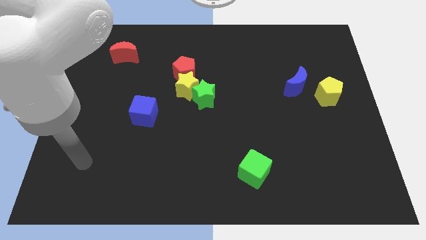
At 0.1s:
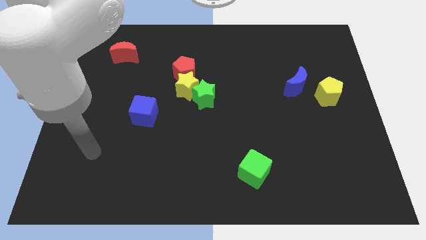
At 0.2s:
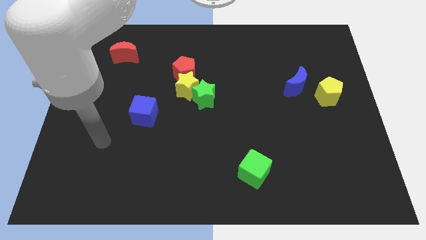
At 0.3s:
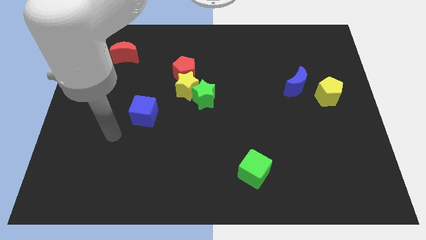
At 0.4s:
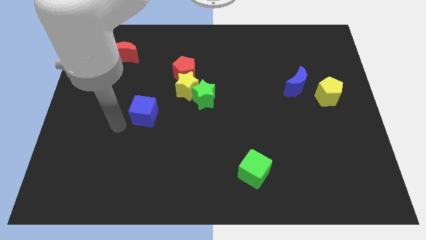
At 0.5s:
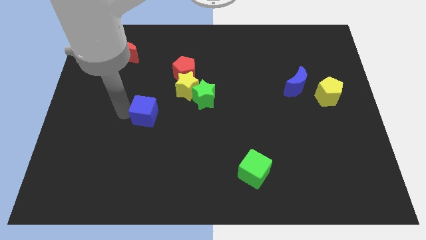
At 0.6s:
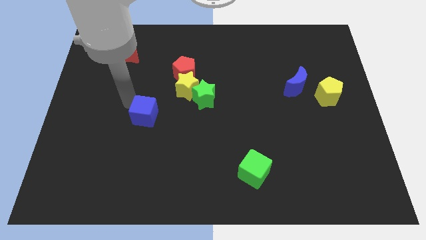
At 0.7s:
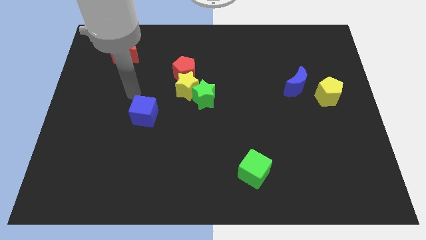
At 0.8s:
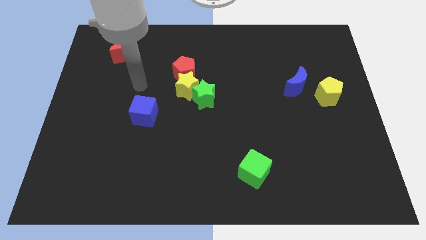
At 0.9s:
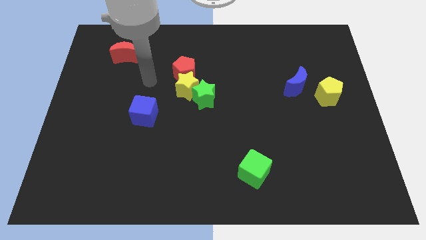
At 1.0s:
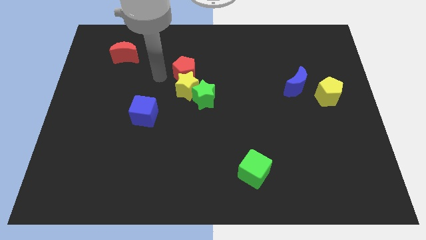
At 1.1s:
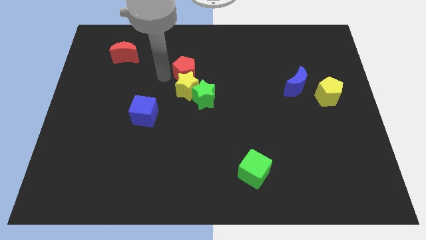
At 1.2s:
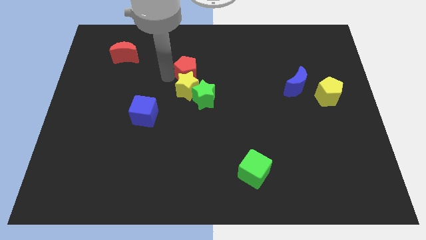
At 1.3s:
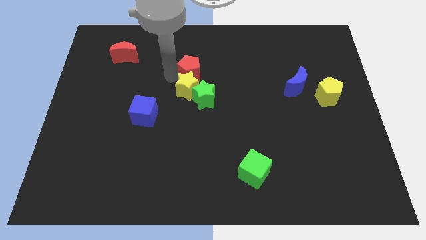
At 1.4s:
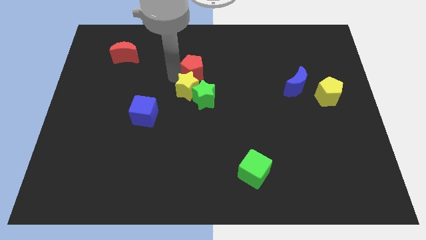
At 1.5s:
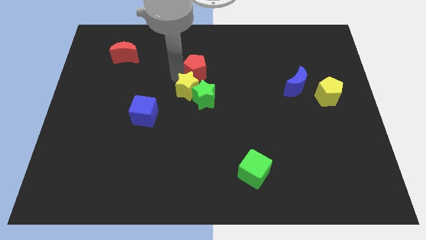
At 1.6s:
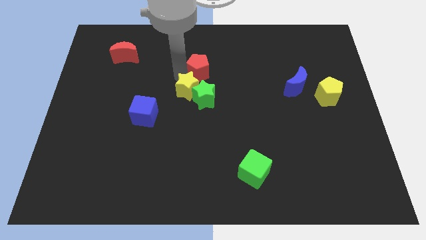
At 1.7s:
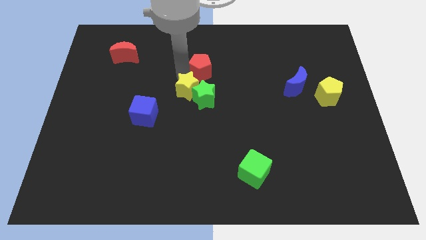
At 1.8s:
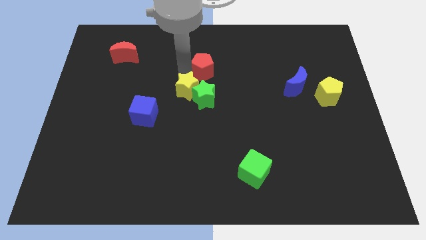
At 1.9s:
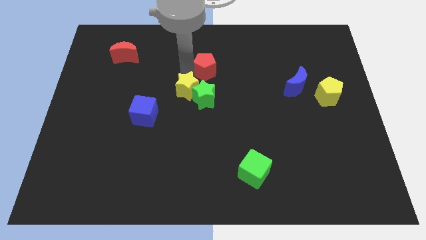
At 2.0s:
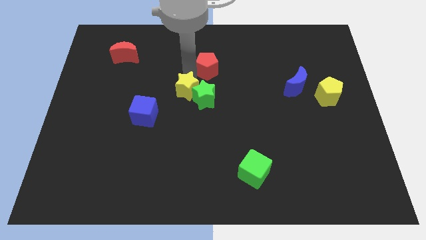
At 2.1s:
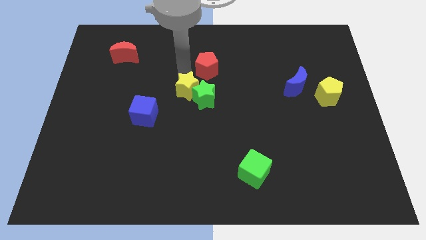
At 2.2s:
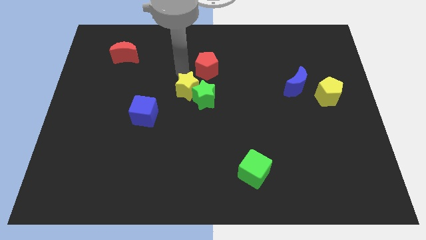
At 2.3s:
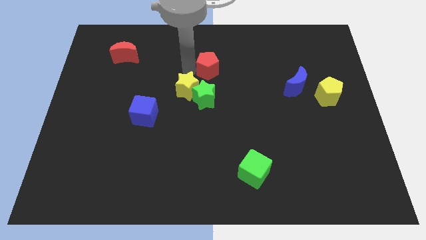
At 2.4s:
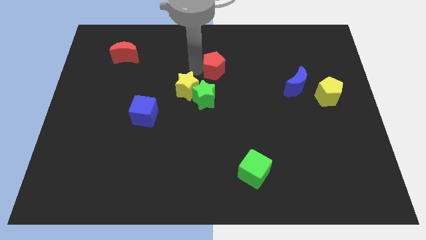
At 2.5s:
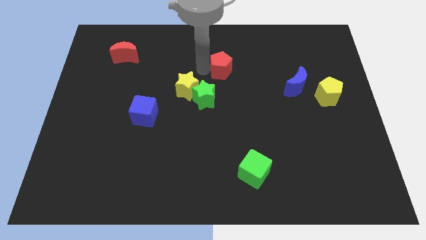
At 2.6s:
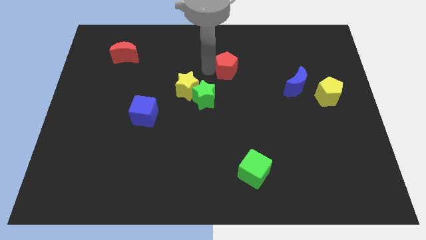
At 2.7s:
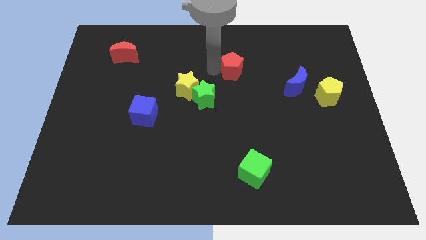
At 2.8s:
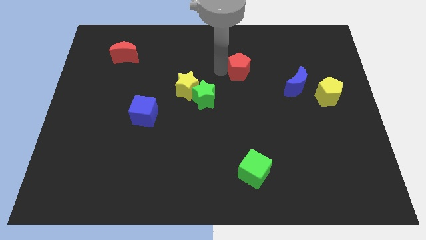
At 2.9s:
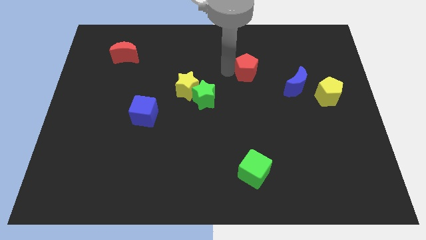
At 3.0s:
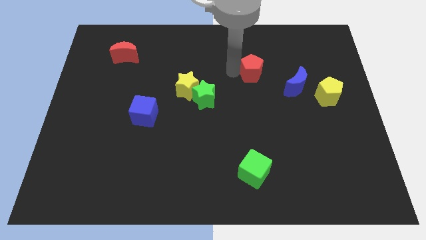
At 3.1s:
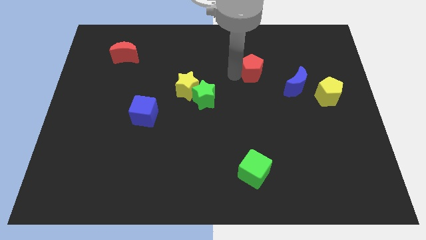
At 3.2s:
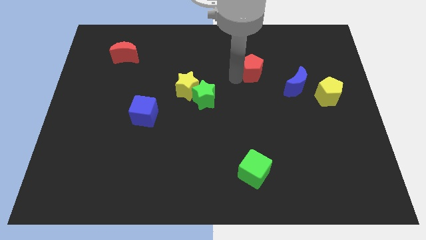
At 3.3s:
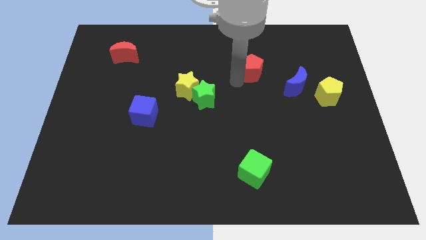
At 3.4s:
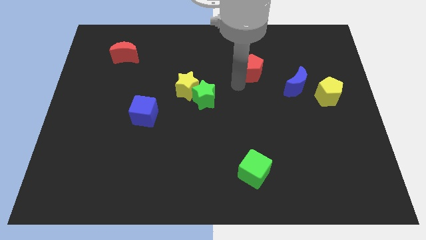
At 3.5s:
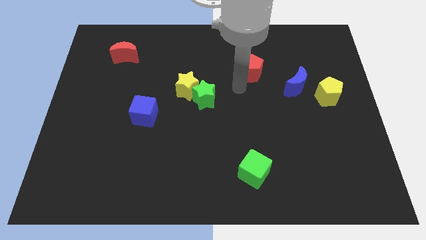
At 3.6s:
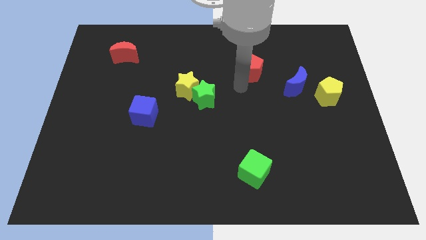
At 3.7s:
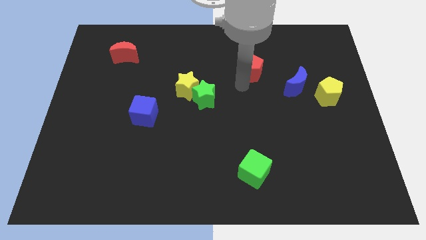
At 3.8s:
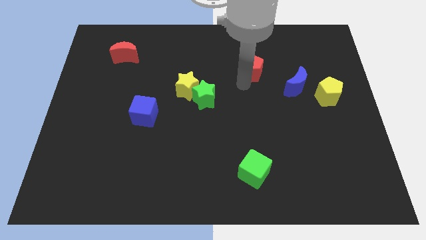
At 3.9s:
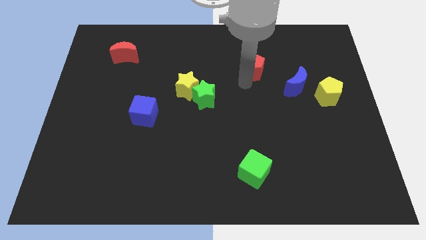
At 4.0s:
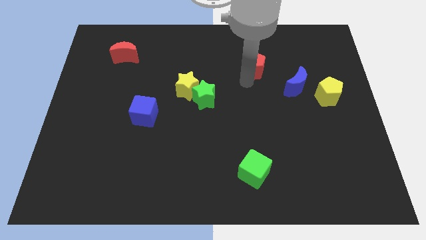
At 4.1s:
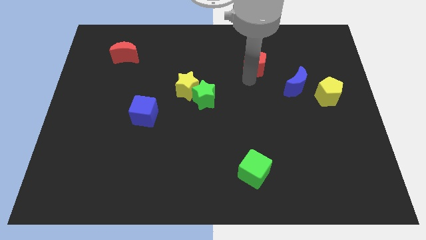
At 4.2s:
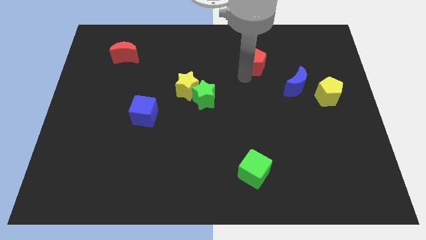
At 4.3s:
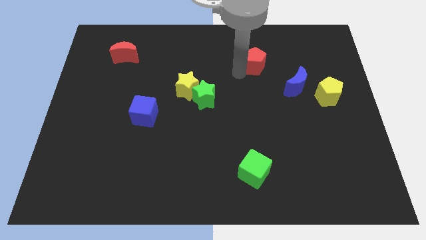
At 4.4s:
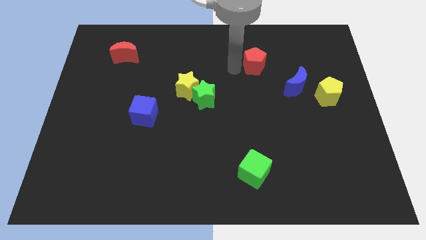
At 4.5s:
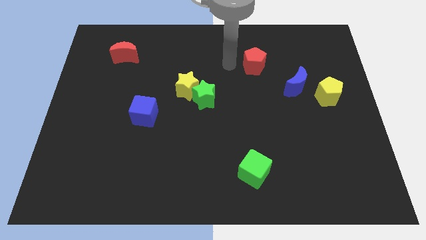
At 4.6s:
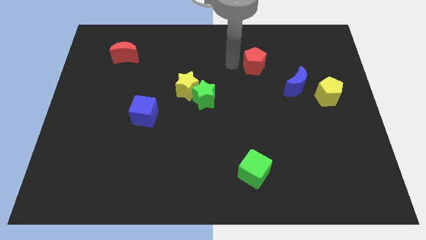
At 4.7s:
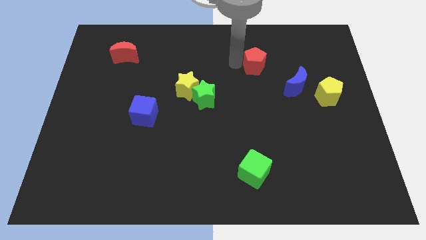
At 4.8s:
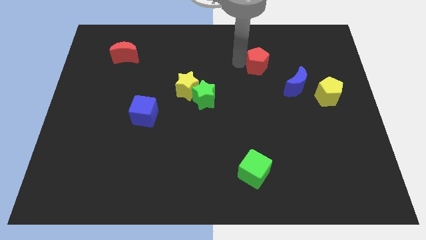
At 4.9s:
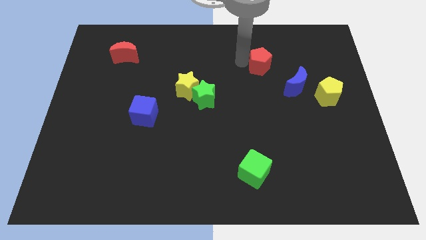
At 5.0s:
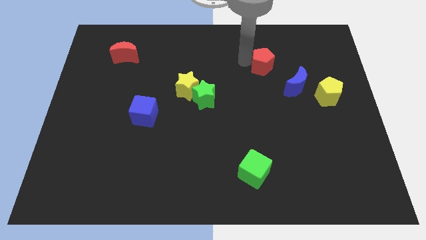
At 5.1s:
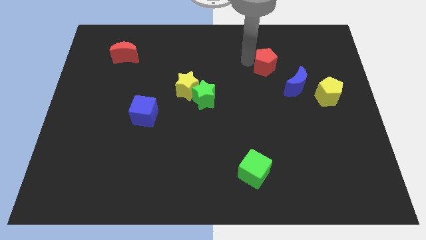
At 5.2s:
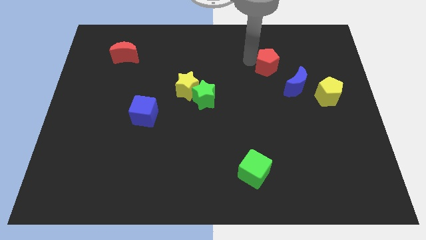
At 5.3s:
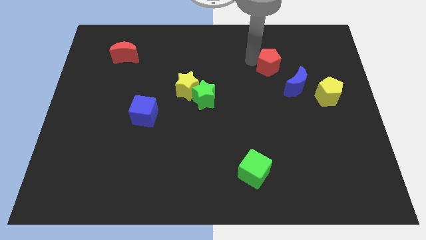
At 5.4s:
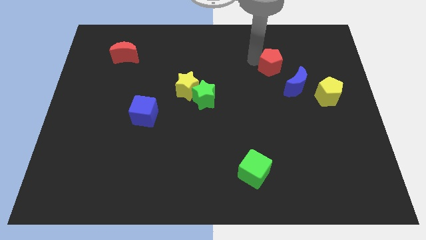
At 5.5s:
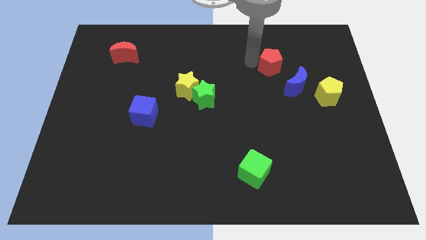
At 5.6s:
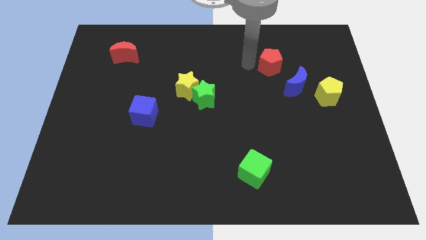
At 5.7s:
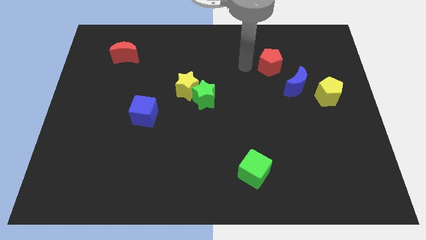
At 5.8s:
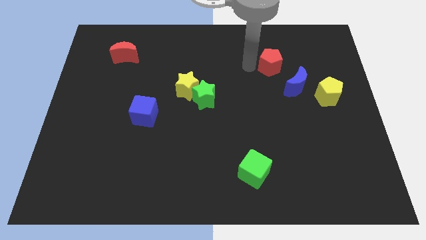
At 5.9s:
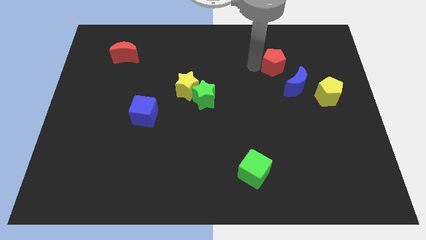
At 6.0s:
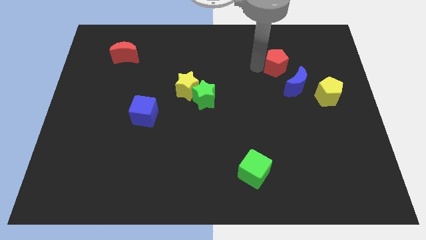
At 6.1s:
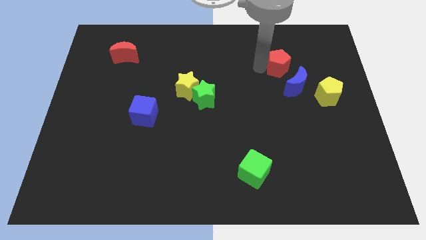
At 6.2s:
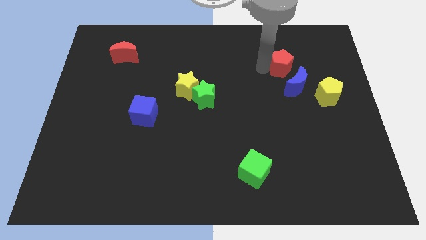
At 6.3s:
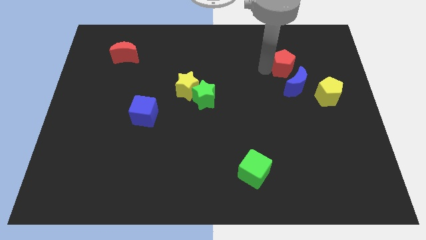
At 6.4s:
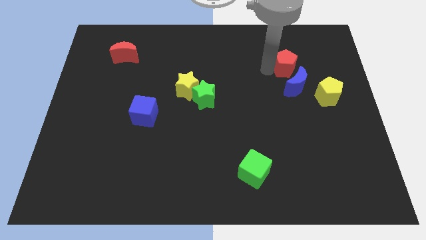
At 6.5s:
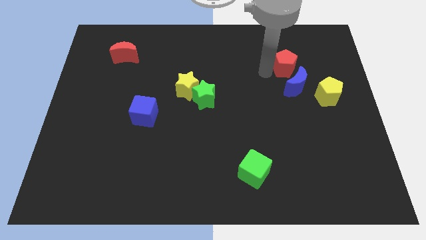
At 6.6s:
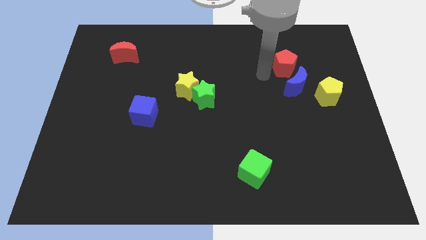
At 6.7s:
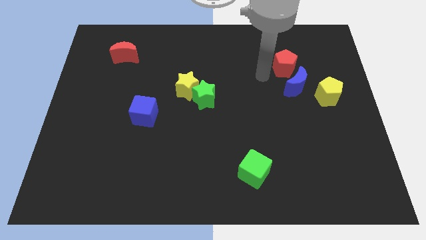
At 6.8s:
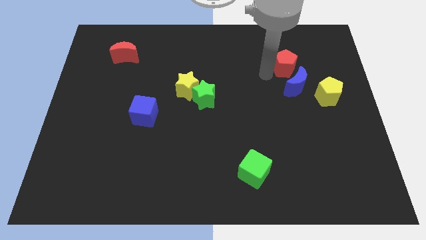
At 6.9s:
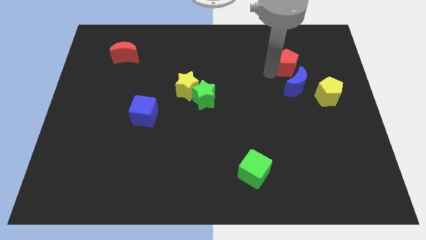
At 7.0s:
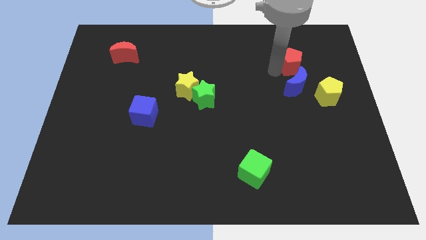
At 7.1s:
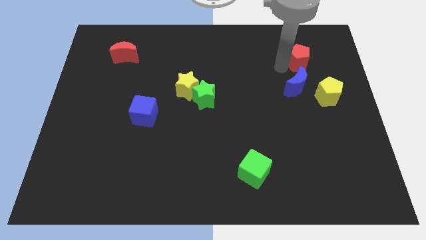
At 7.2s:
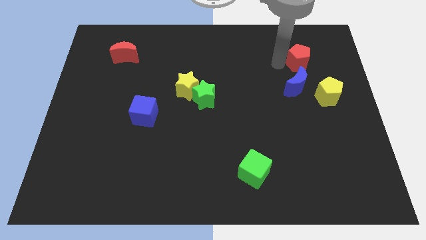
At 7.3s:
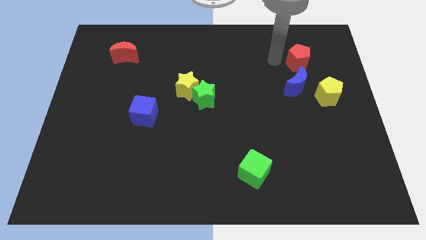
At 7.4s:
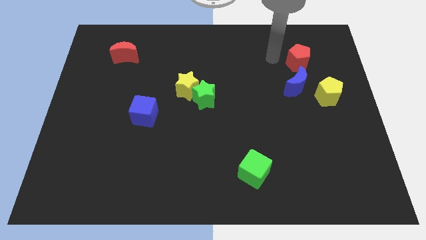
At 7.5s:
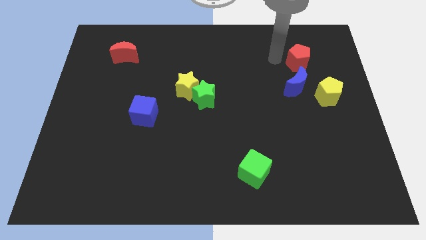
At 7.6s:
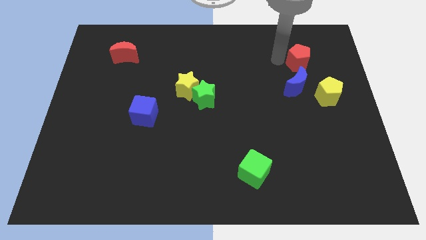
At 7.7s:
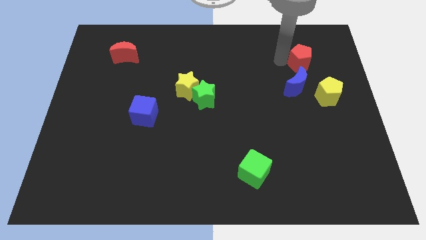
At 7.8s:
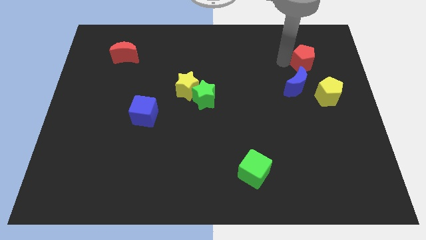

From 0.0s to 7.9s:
put the red pentagon to the top of the yellow pentagon
